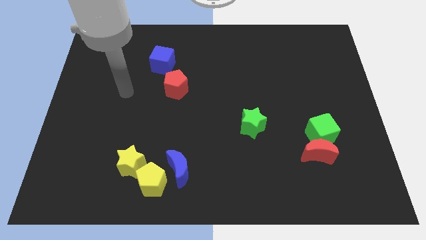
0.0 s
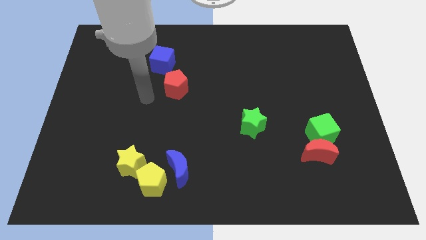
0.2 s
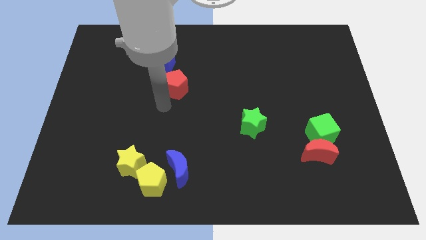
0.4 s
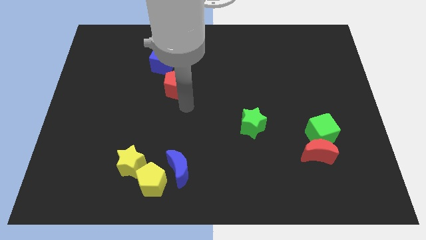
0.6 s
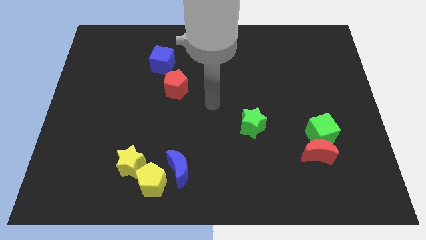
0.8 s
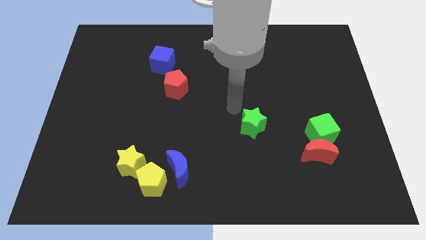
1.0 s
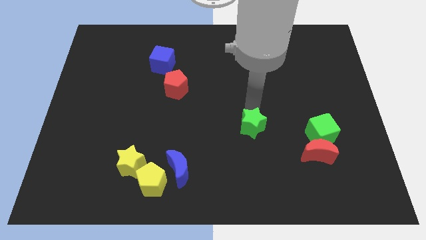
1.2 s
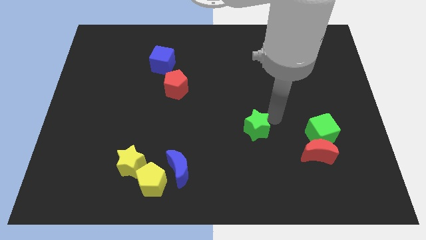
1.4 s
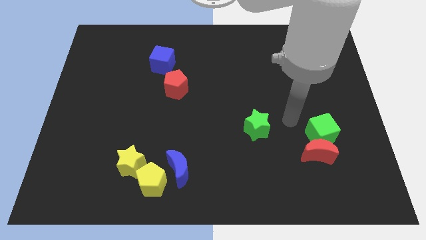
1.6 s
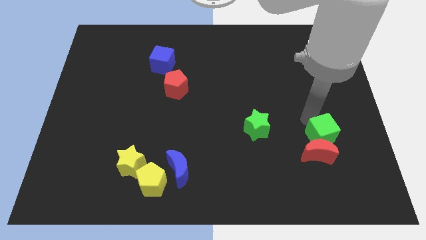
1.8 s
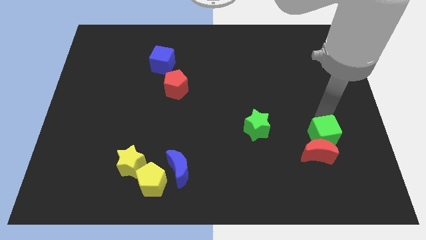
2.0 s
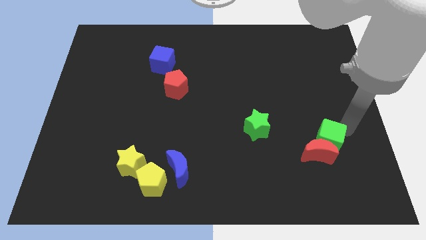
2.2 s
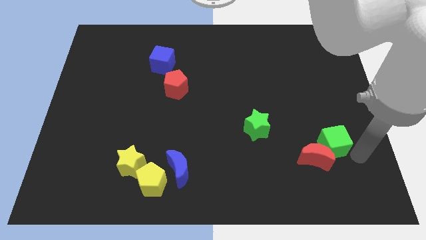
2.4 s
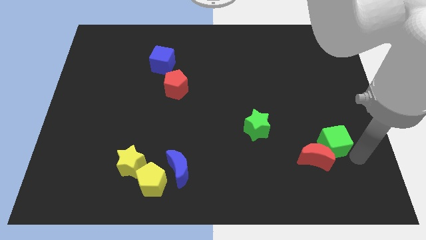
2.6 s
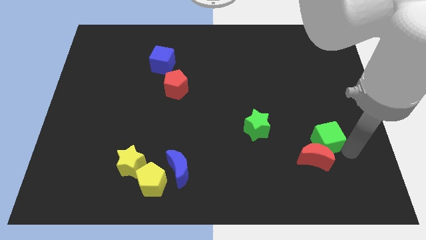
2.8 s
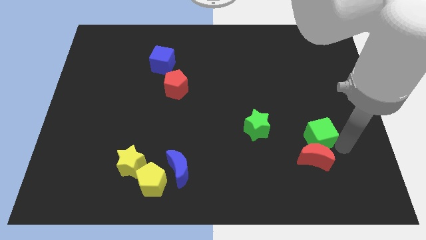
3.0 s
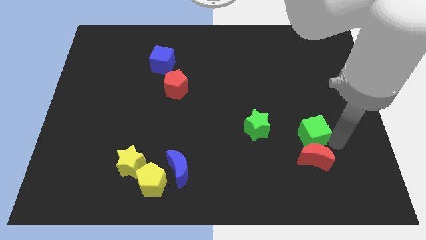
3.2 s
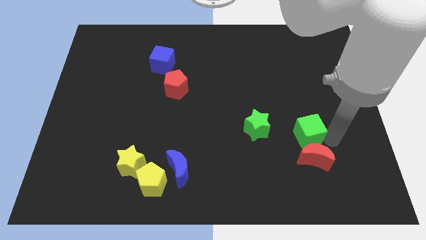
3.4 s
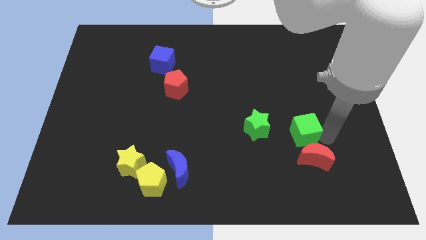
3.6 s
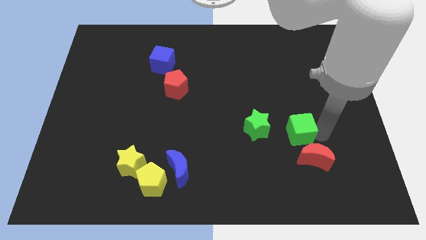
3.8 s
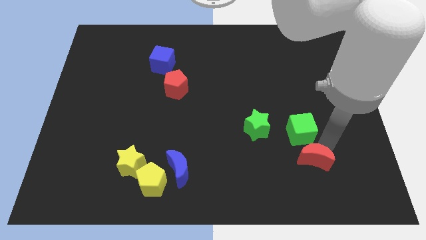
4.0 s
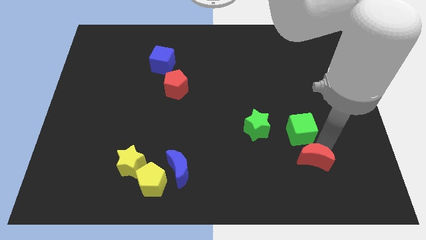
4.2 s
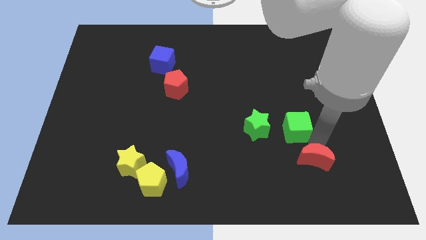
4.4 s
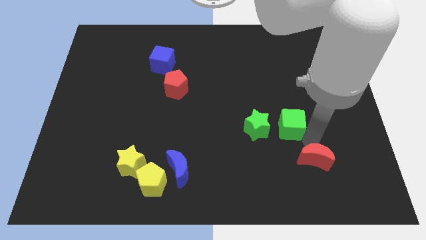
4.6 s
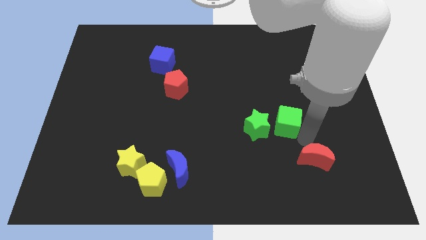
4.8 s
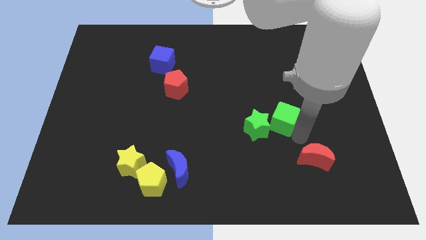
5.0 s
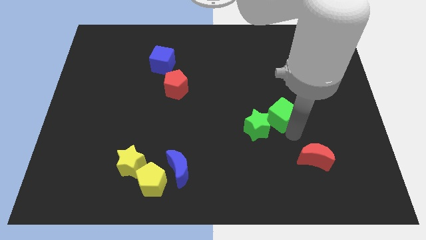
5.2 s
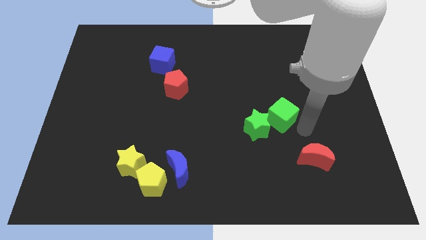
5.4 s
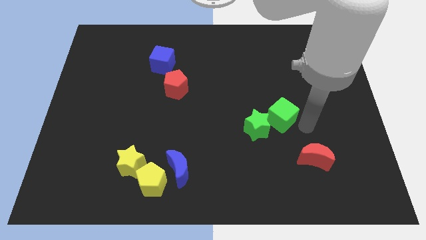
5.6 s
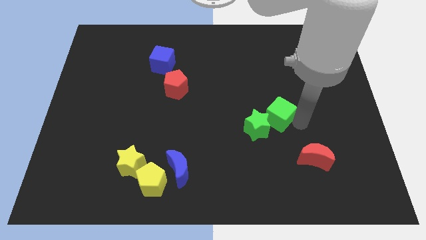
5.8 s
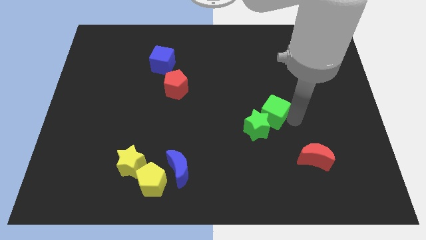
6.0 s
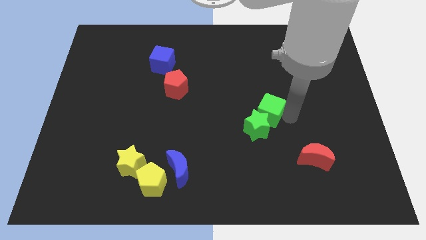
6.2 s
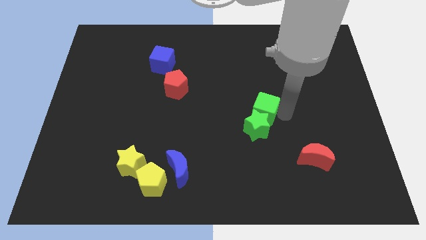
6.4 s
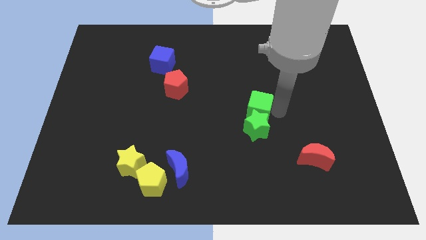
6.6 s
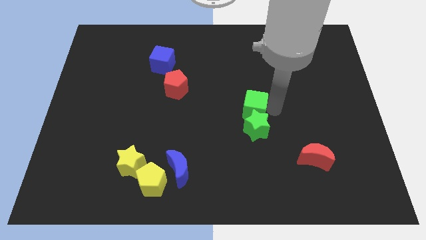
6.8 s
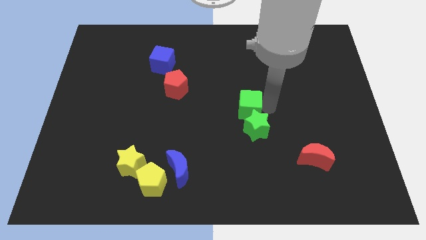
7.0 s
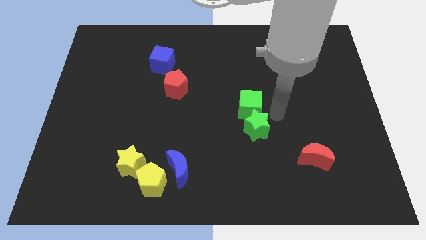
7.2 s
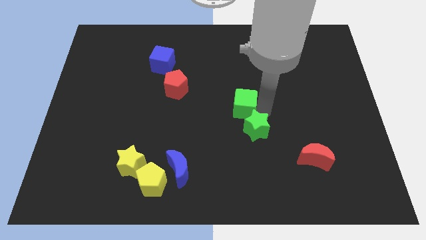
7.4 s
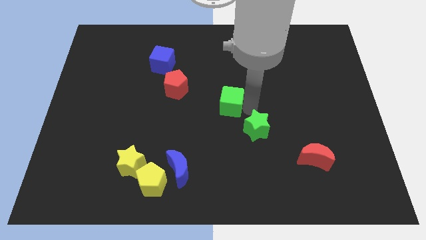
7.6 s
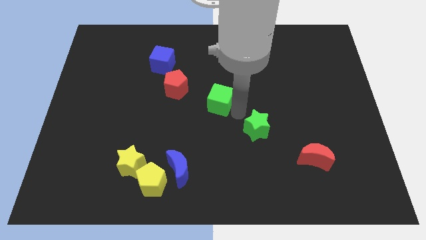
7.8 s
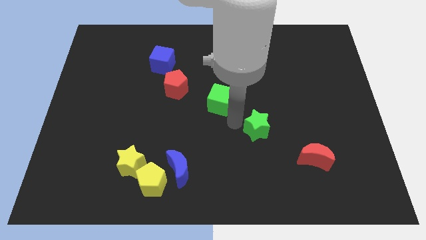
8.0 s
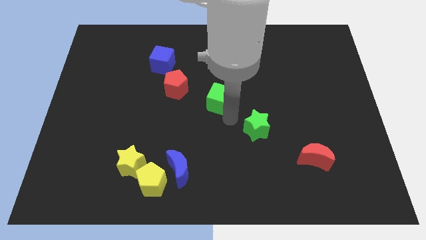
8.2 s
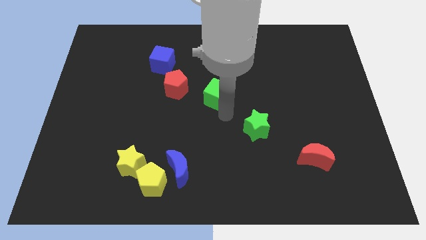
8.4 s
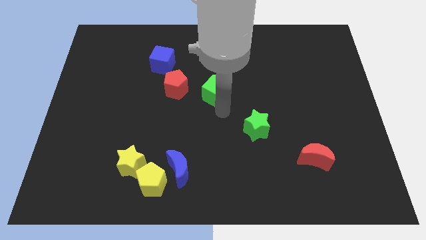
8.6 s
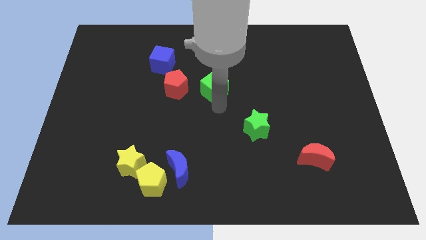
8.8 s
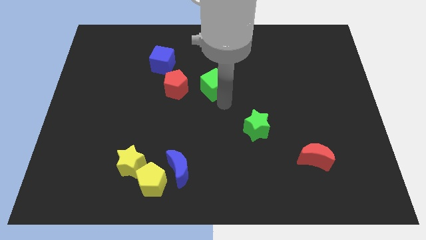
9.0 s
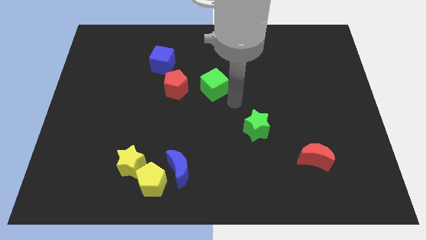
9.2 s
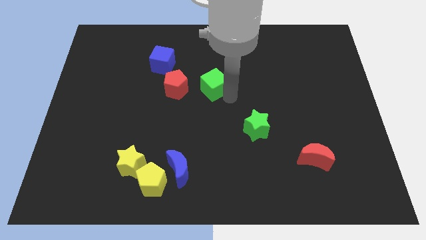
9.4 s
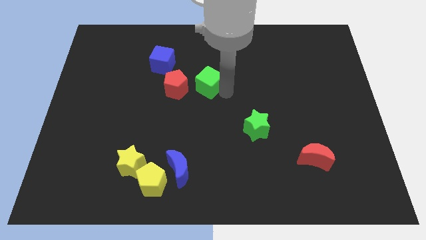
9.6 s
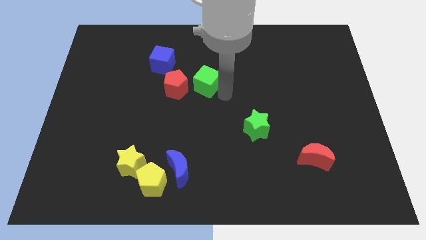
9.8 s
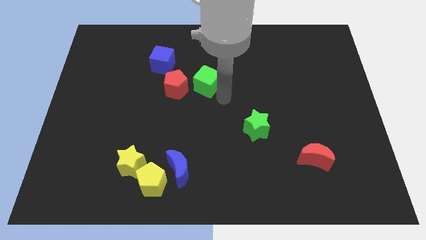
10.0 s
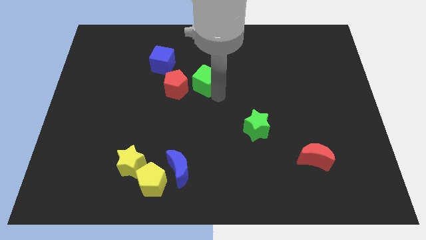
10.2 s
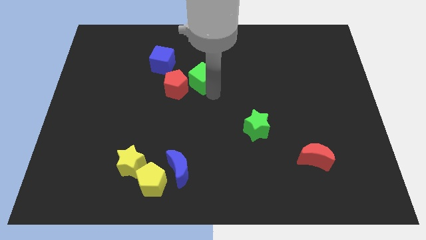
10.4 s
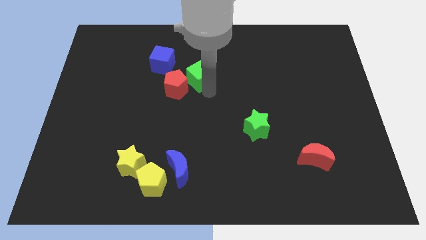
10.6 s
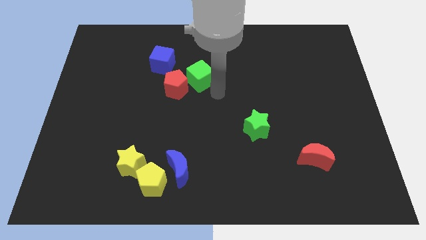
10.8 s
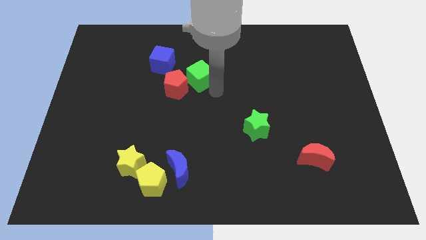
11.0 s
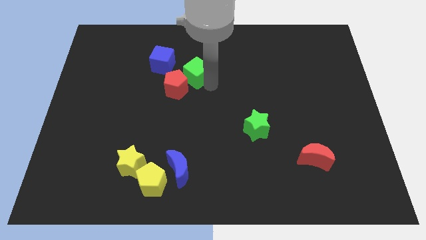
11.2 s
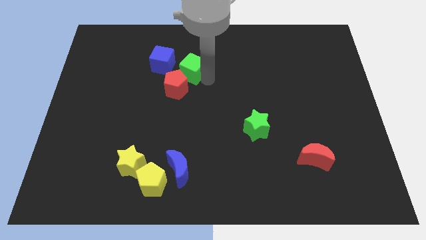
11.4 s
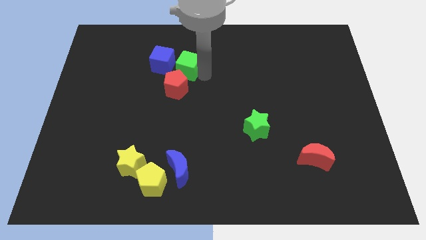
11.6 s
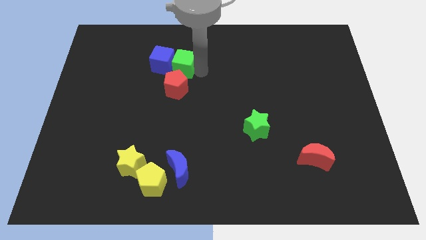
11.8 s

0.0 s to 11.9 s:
push the green cube towards the blue cube

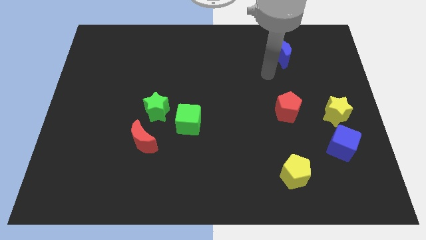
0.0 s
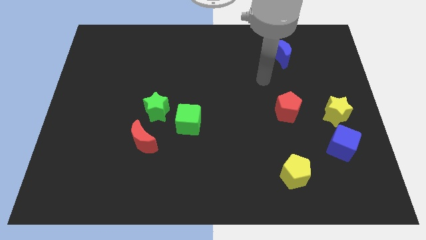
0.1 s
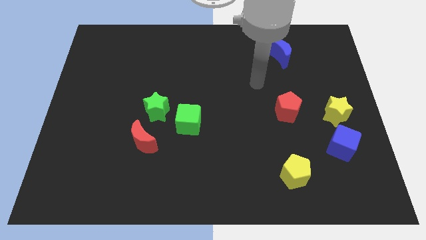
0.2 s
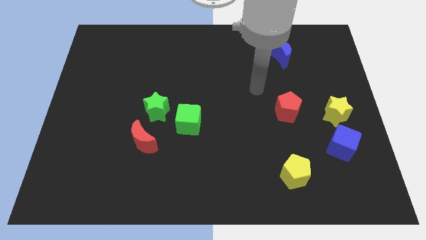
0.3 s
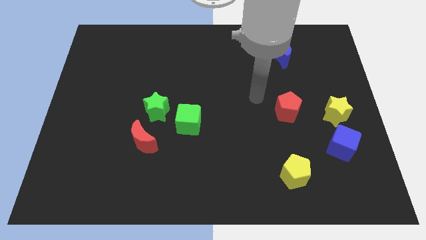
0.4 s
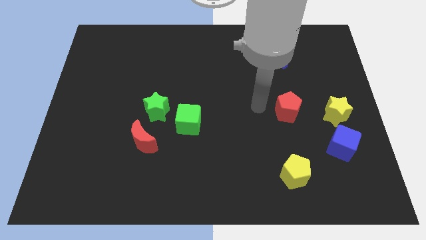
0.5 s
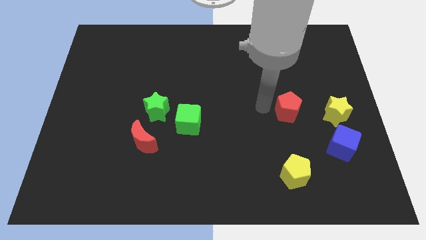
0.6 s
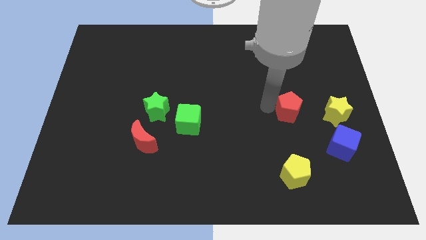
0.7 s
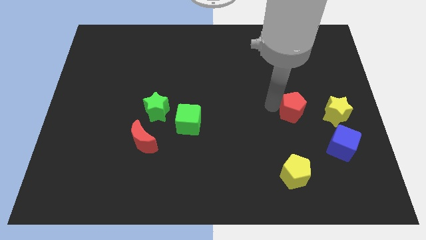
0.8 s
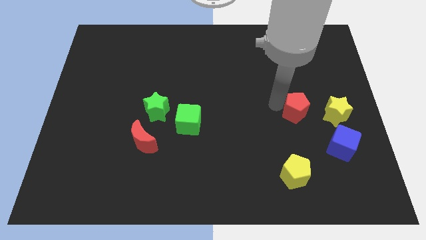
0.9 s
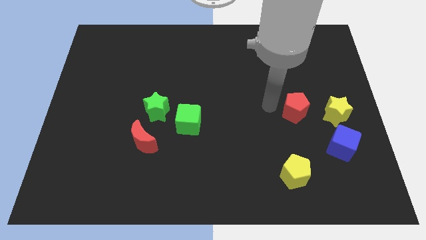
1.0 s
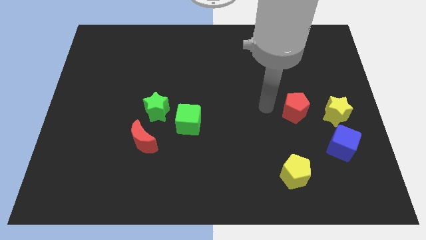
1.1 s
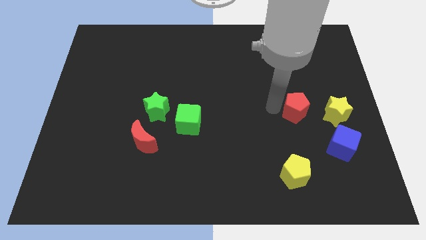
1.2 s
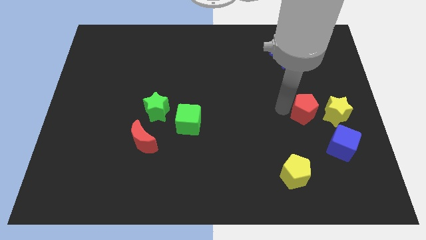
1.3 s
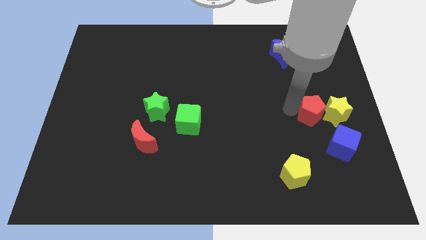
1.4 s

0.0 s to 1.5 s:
slide the red pentagon next to the yellow star

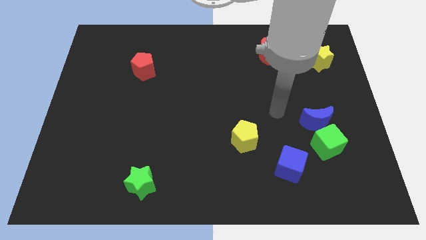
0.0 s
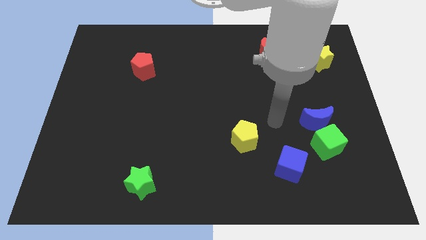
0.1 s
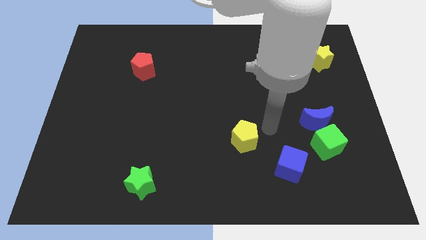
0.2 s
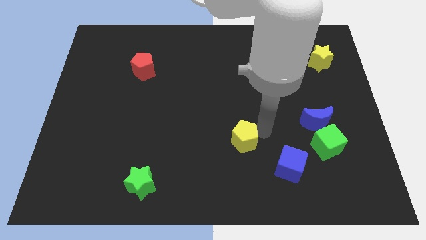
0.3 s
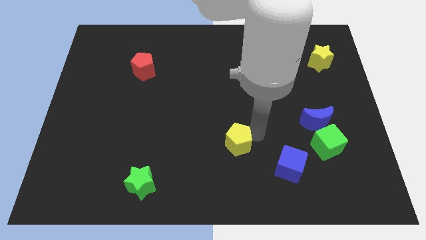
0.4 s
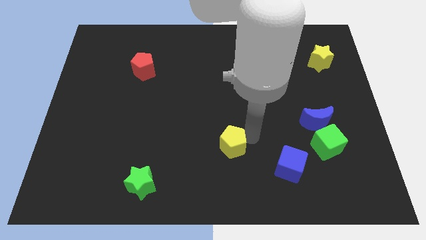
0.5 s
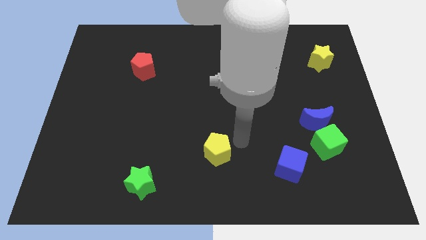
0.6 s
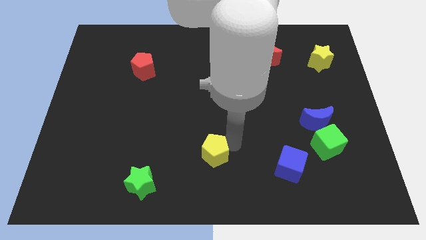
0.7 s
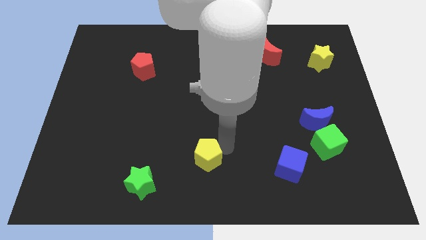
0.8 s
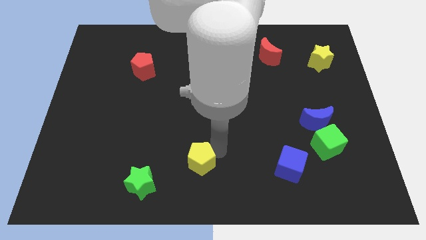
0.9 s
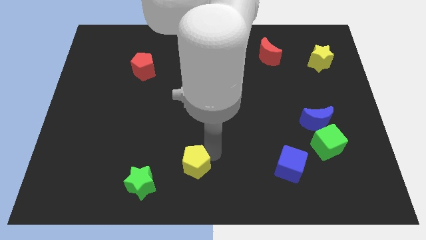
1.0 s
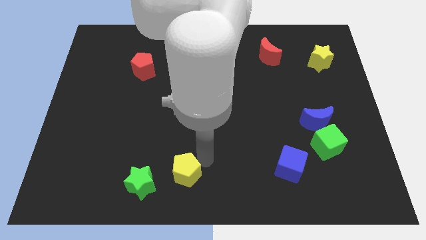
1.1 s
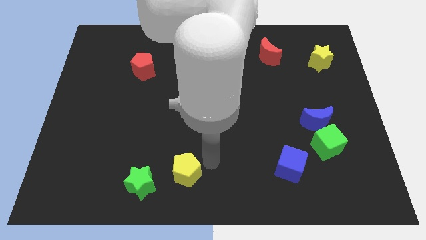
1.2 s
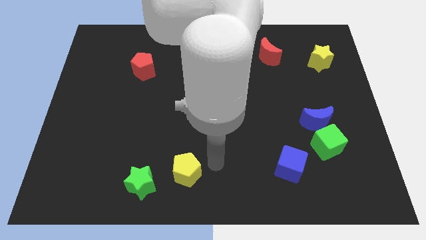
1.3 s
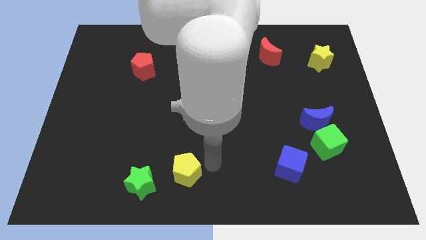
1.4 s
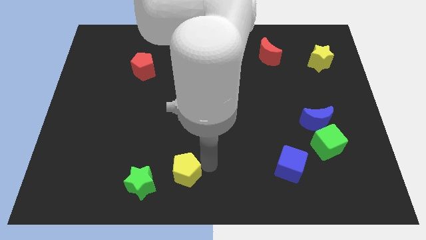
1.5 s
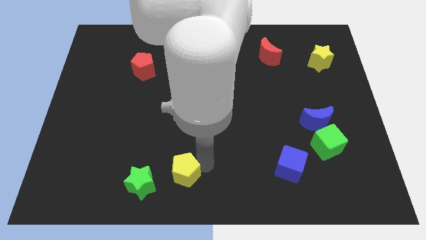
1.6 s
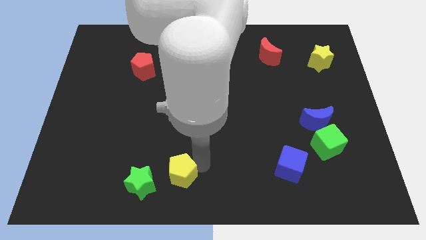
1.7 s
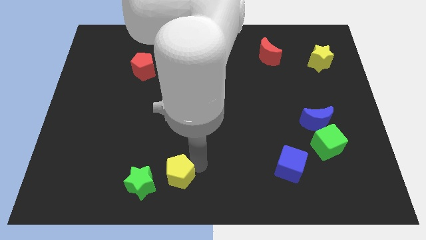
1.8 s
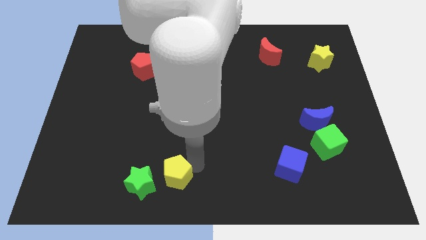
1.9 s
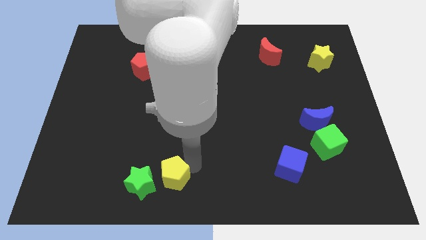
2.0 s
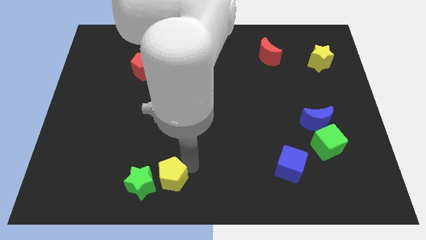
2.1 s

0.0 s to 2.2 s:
move the yellow pentagon close to the green star
